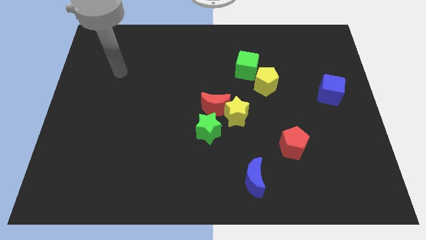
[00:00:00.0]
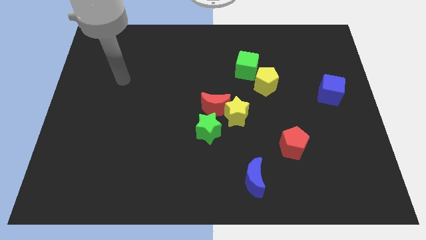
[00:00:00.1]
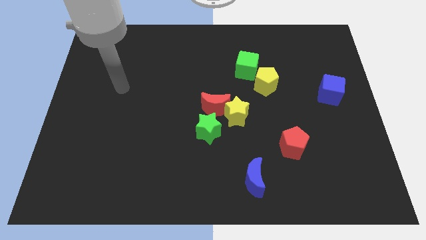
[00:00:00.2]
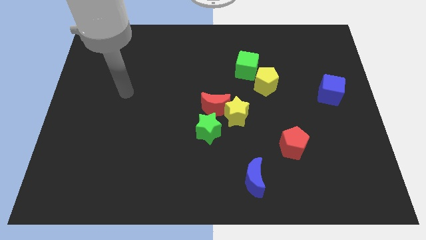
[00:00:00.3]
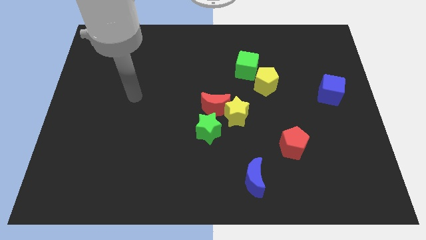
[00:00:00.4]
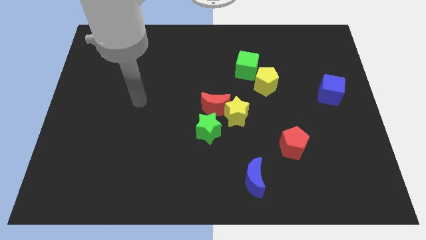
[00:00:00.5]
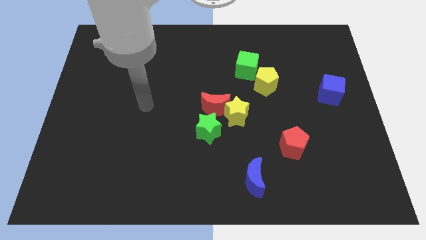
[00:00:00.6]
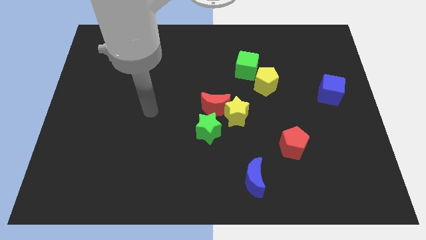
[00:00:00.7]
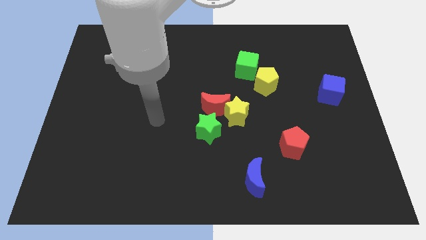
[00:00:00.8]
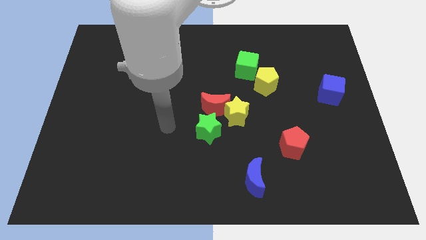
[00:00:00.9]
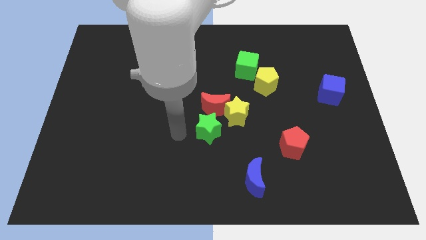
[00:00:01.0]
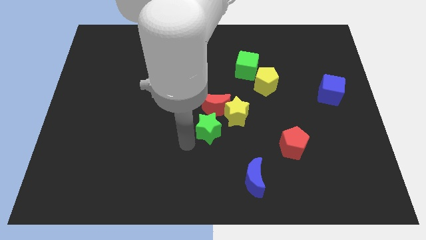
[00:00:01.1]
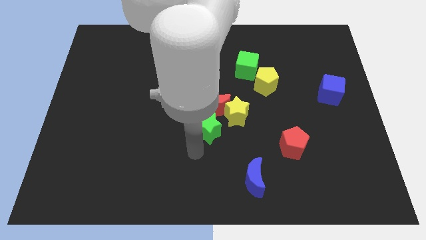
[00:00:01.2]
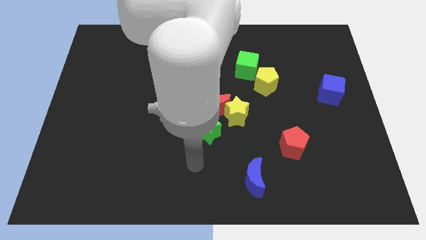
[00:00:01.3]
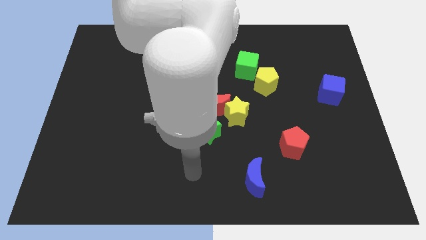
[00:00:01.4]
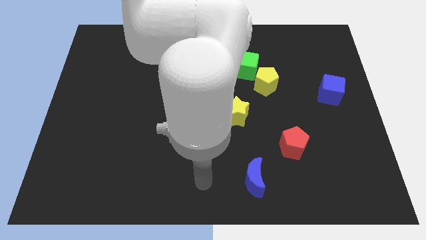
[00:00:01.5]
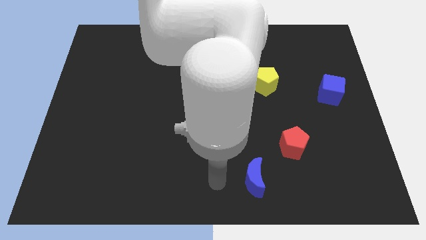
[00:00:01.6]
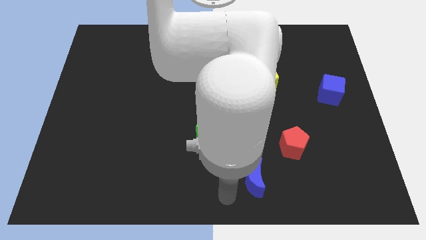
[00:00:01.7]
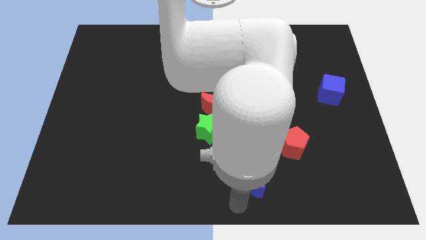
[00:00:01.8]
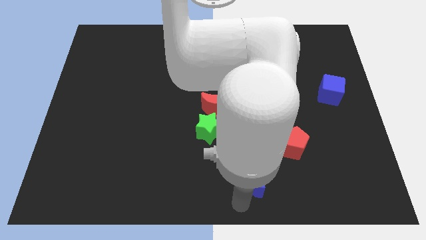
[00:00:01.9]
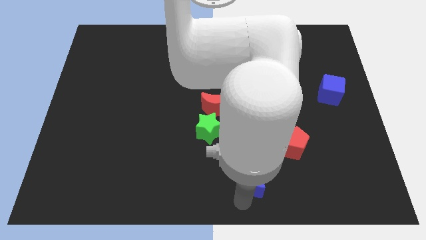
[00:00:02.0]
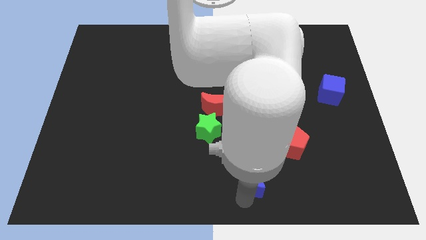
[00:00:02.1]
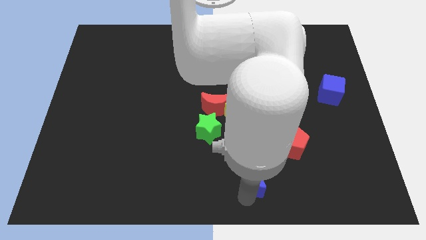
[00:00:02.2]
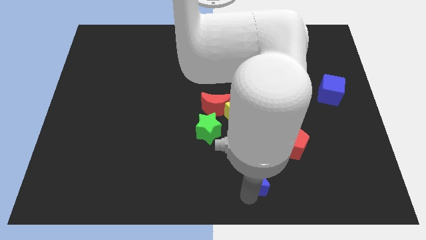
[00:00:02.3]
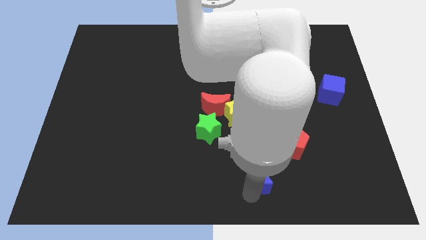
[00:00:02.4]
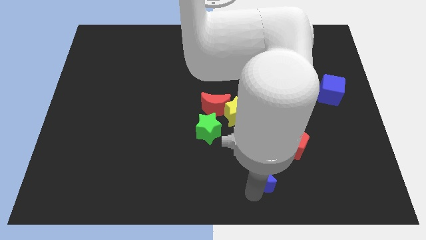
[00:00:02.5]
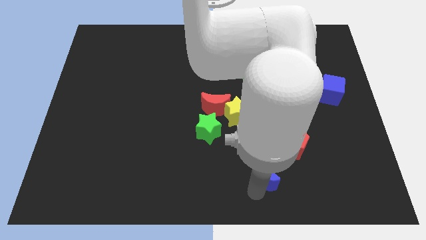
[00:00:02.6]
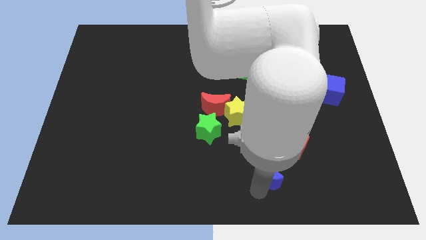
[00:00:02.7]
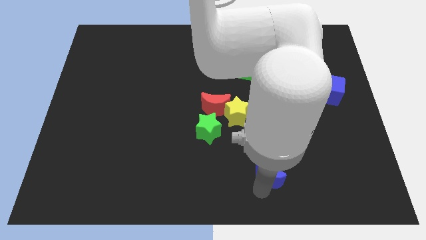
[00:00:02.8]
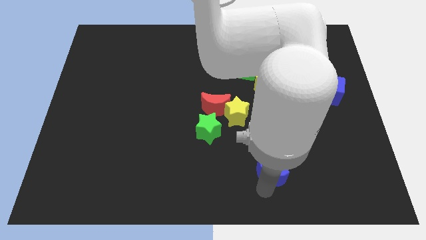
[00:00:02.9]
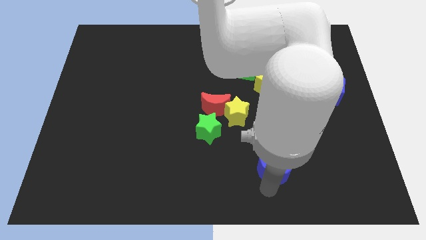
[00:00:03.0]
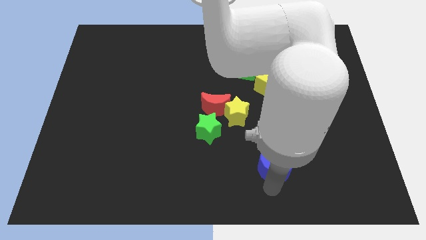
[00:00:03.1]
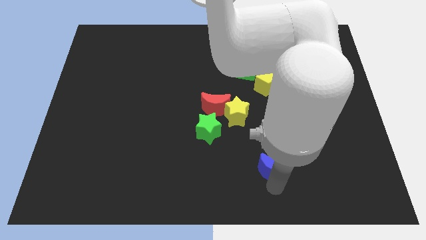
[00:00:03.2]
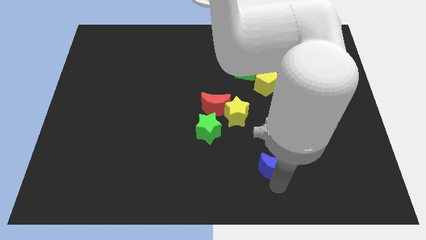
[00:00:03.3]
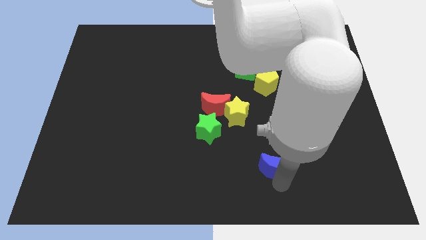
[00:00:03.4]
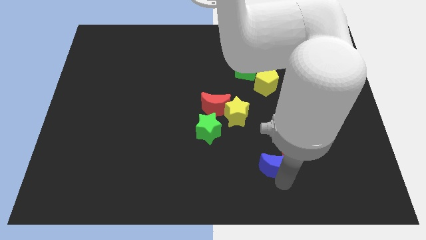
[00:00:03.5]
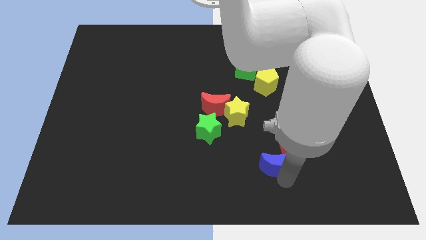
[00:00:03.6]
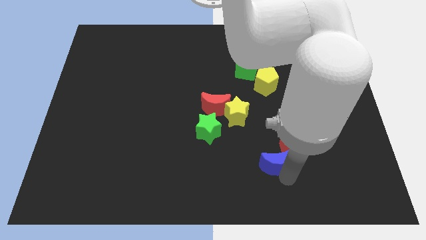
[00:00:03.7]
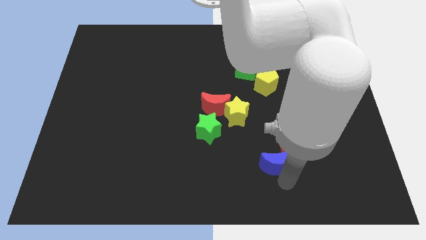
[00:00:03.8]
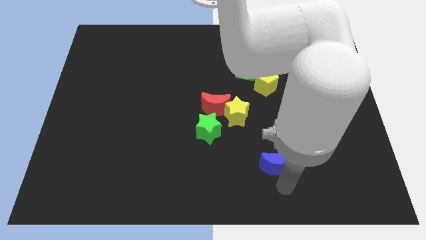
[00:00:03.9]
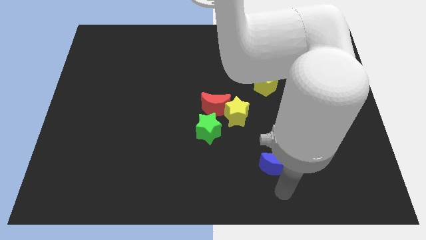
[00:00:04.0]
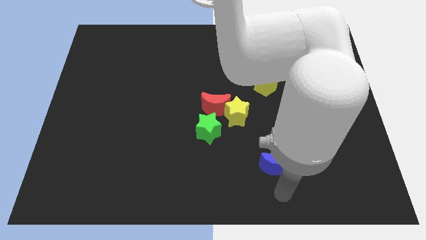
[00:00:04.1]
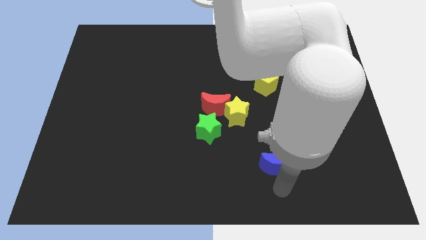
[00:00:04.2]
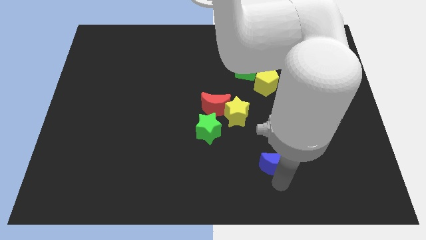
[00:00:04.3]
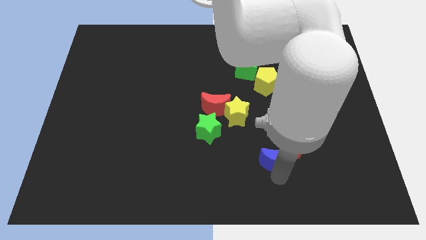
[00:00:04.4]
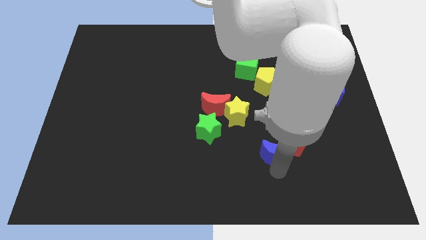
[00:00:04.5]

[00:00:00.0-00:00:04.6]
slightly slide the blue moon diagonally upwards and right

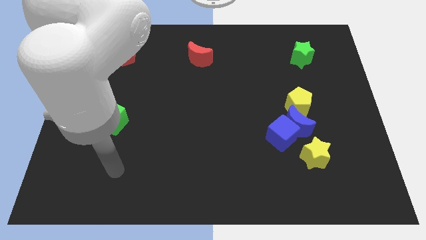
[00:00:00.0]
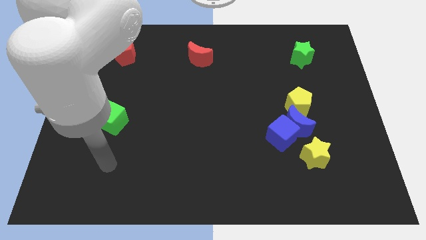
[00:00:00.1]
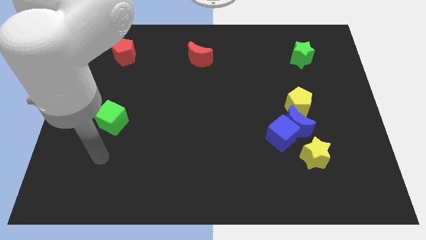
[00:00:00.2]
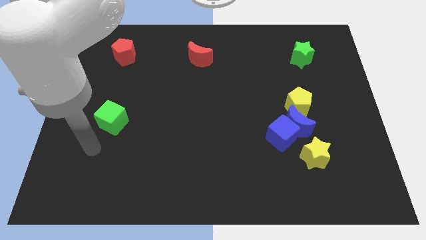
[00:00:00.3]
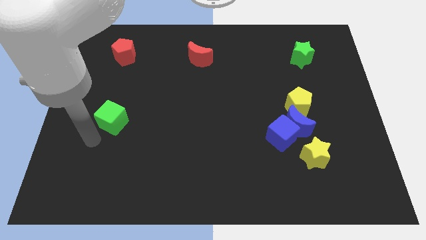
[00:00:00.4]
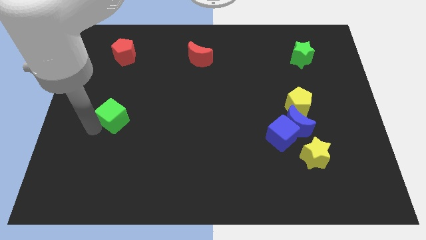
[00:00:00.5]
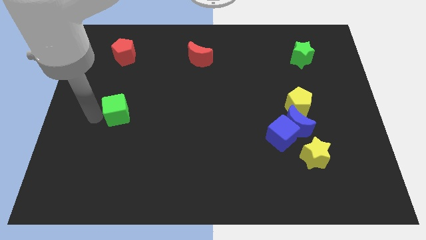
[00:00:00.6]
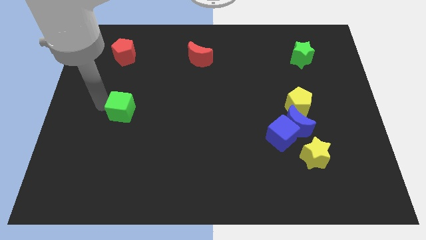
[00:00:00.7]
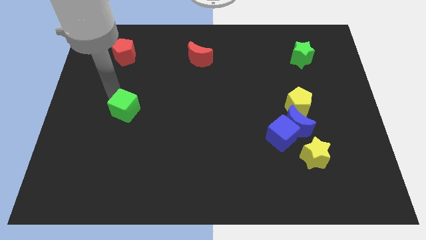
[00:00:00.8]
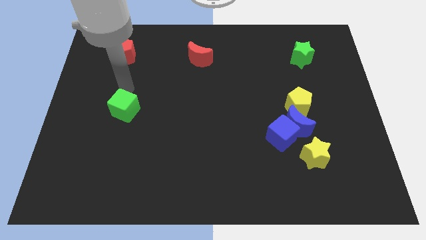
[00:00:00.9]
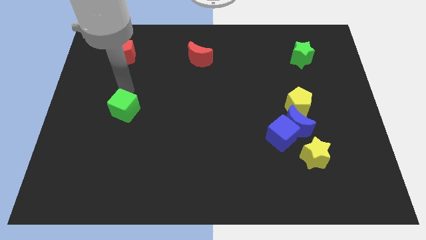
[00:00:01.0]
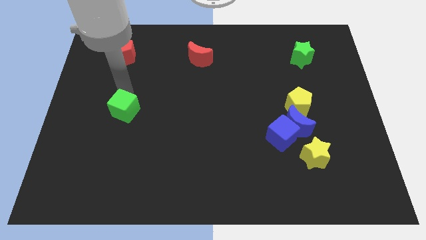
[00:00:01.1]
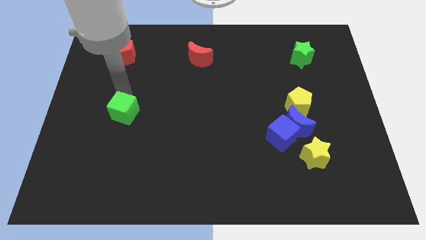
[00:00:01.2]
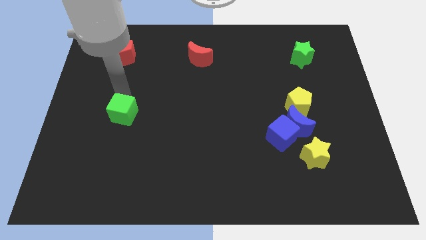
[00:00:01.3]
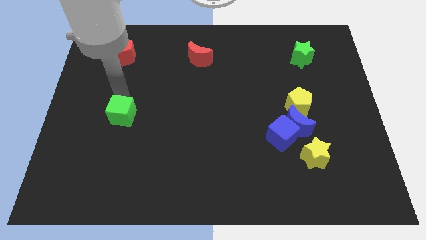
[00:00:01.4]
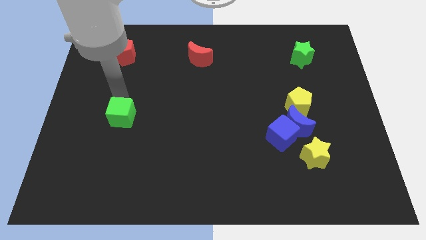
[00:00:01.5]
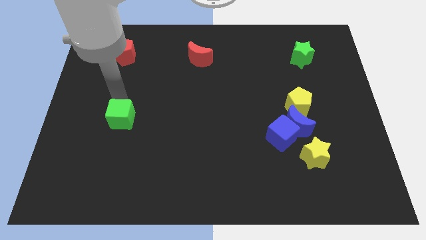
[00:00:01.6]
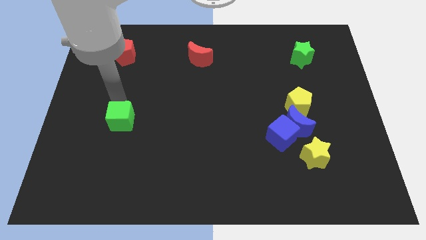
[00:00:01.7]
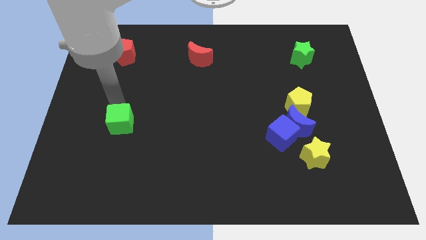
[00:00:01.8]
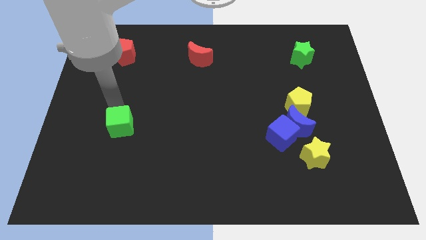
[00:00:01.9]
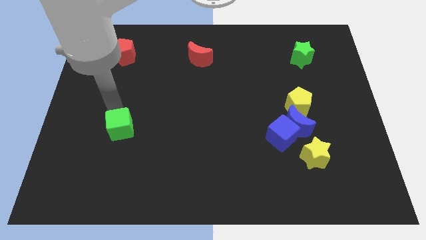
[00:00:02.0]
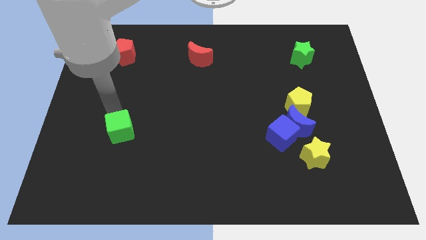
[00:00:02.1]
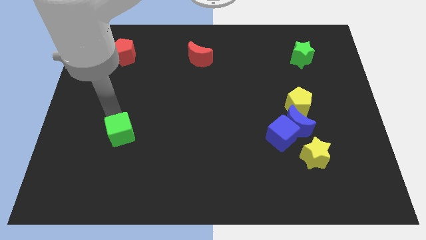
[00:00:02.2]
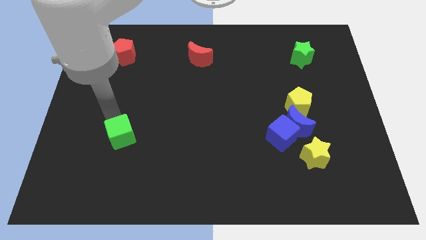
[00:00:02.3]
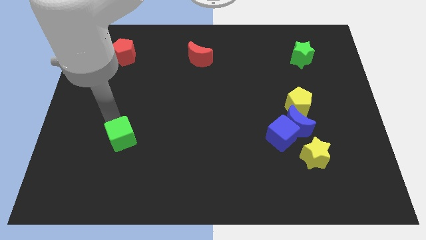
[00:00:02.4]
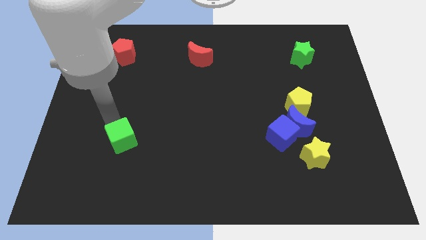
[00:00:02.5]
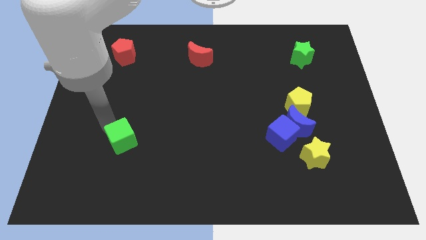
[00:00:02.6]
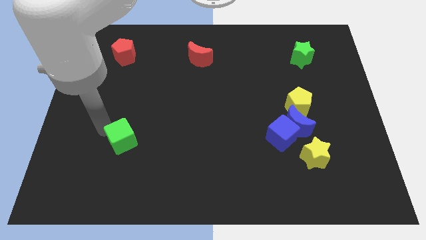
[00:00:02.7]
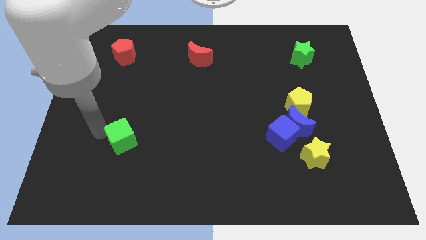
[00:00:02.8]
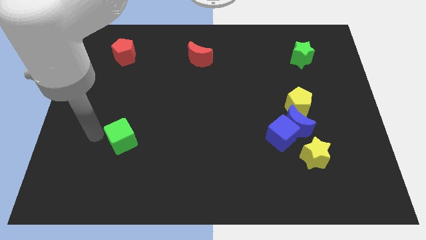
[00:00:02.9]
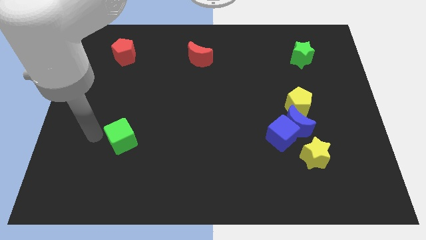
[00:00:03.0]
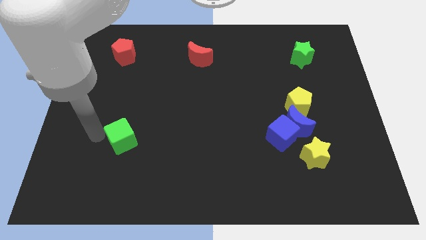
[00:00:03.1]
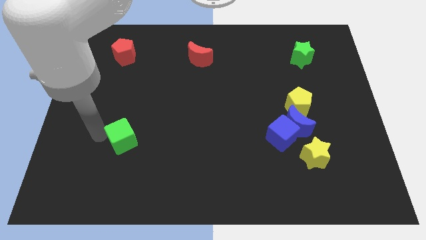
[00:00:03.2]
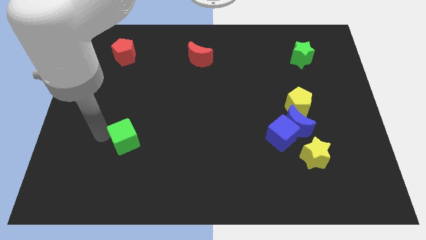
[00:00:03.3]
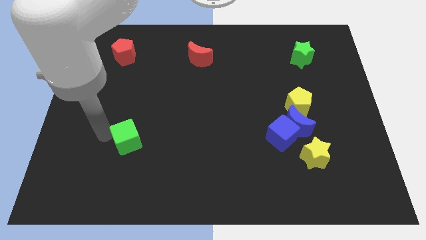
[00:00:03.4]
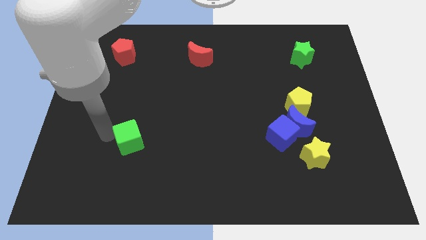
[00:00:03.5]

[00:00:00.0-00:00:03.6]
slightly push the green cube down and then to the right
